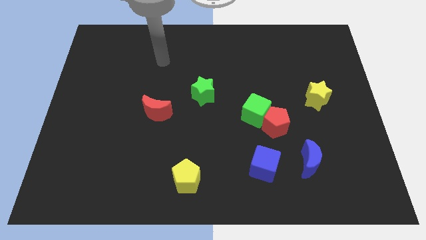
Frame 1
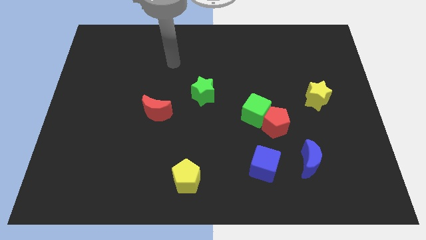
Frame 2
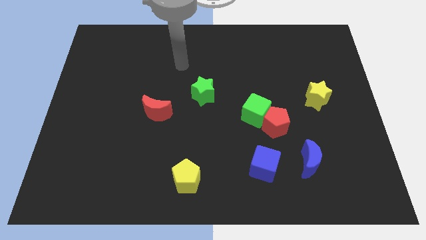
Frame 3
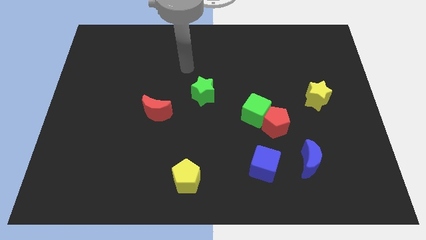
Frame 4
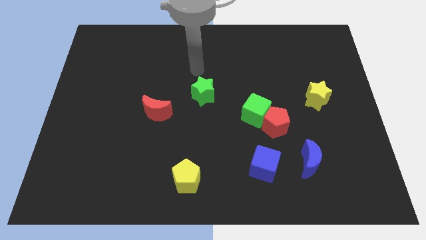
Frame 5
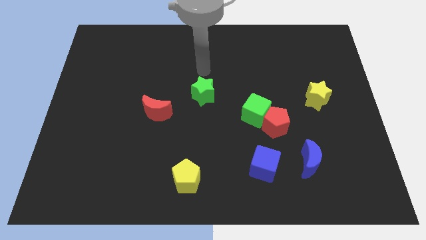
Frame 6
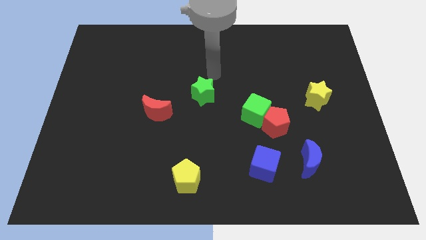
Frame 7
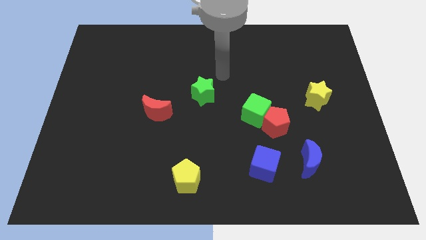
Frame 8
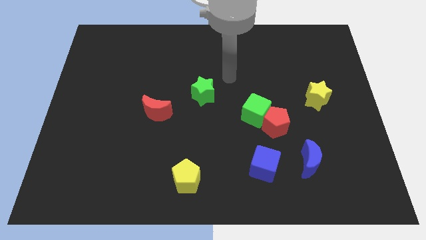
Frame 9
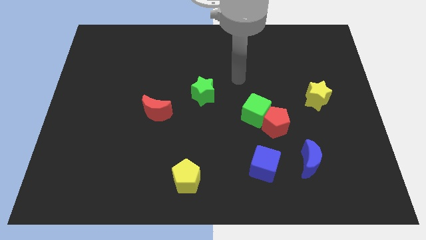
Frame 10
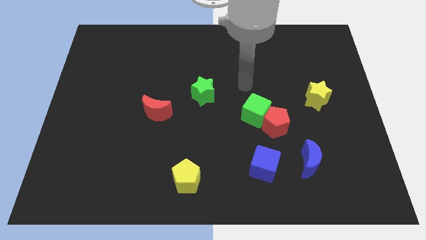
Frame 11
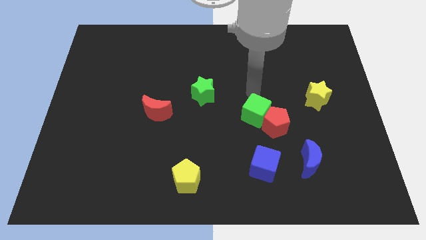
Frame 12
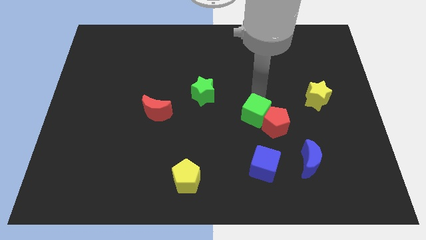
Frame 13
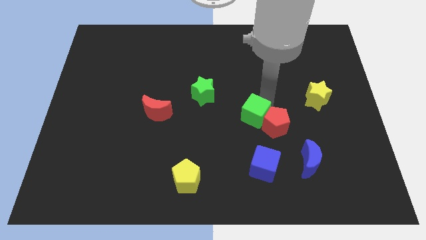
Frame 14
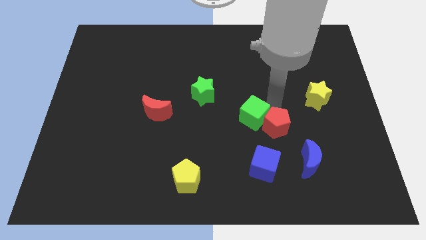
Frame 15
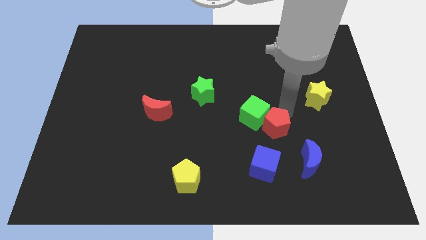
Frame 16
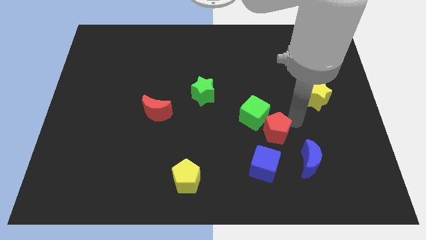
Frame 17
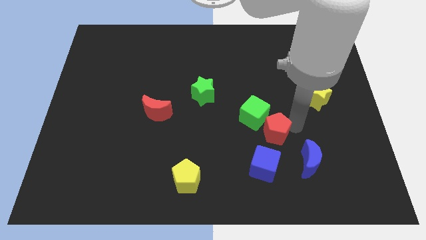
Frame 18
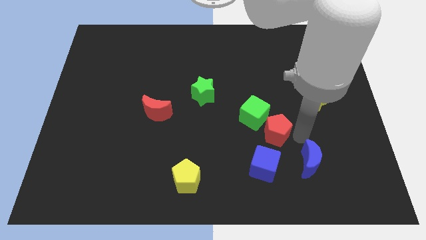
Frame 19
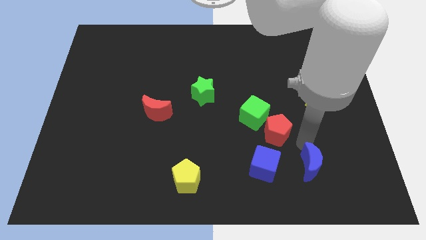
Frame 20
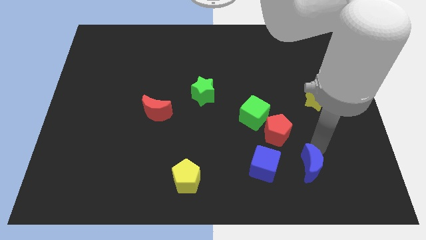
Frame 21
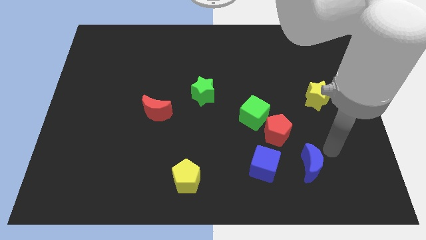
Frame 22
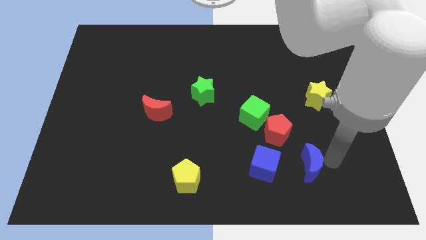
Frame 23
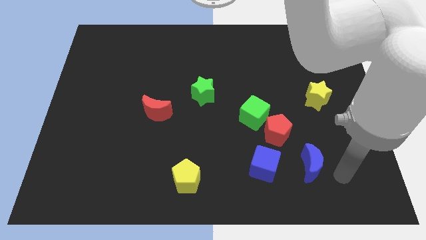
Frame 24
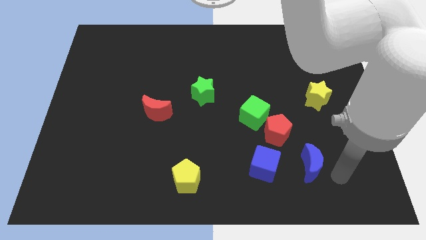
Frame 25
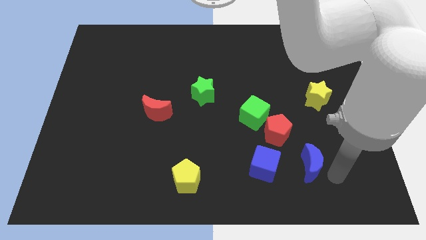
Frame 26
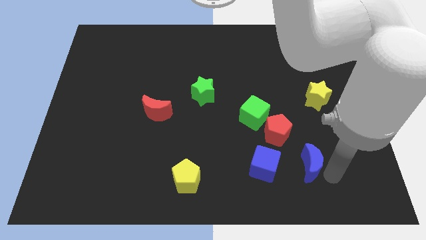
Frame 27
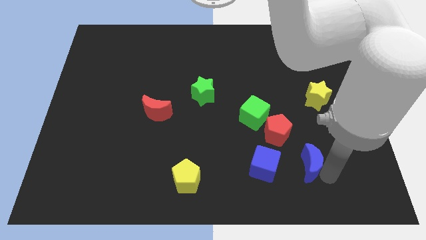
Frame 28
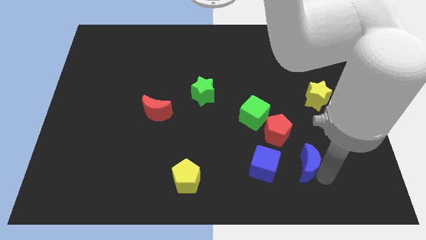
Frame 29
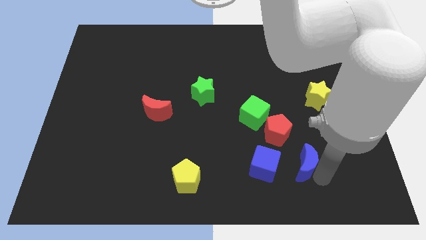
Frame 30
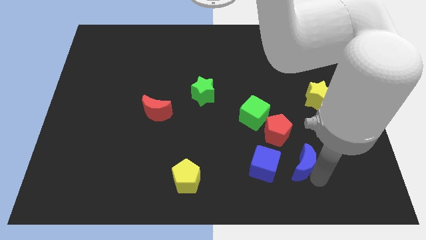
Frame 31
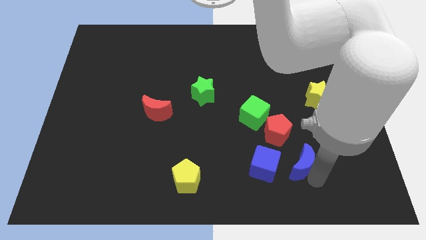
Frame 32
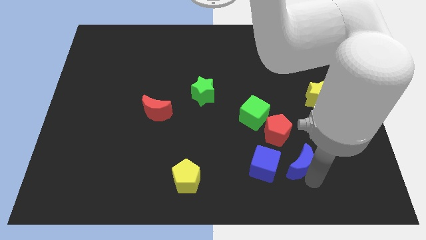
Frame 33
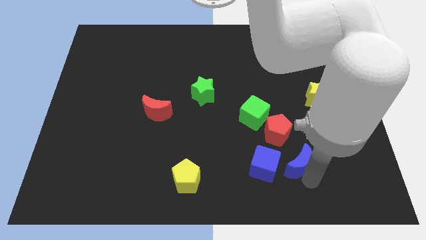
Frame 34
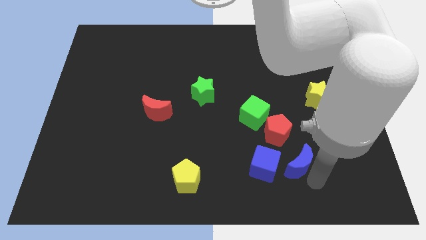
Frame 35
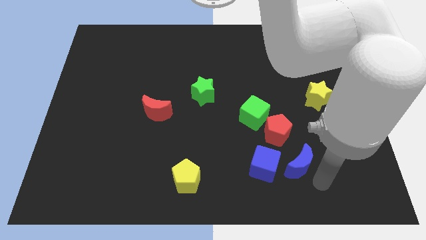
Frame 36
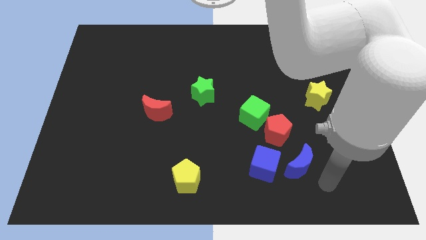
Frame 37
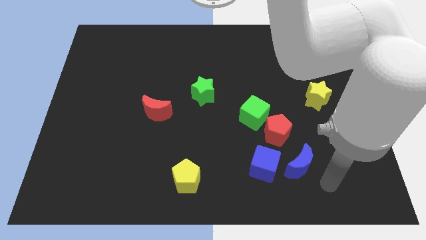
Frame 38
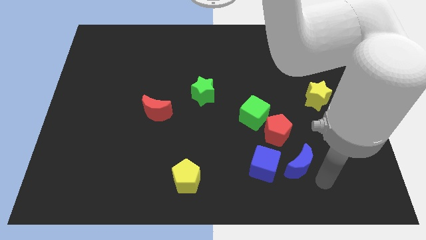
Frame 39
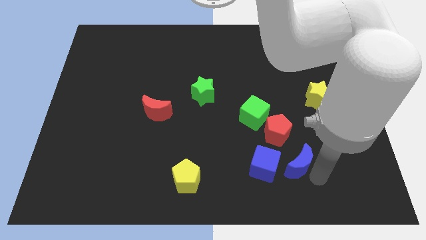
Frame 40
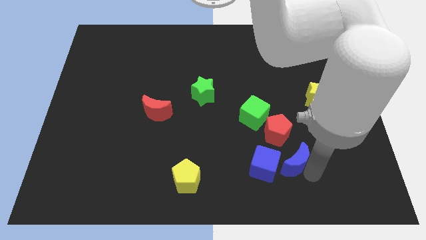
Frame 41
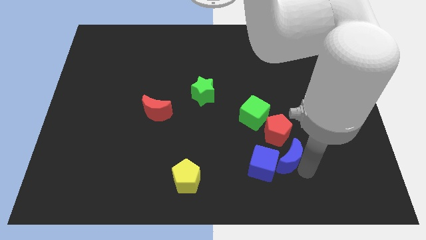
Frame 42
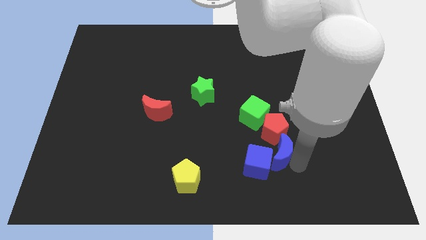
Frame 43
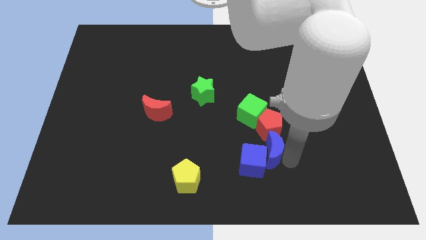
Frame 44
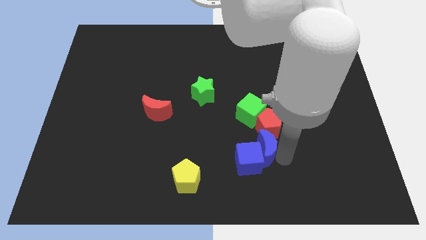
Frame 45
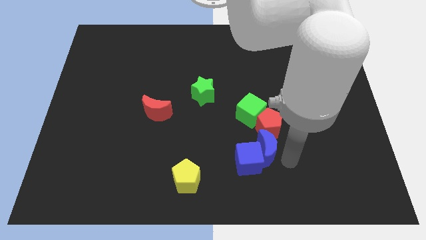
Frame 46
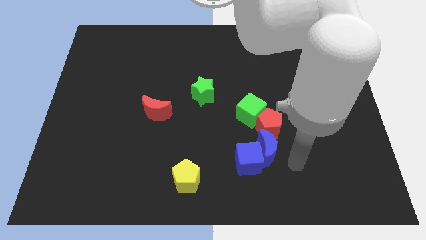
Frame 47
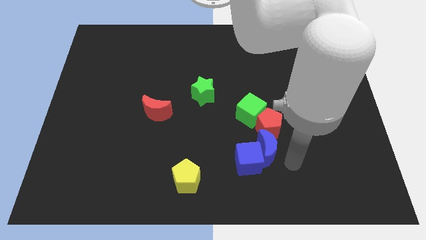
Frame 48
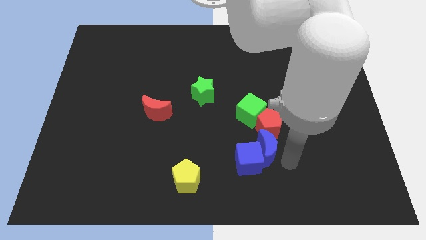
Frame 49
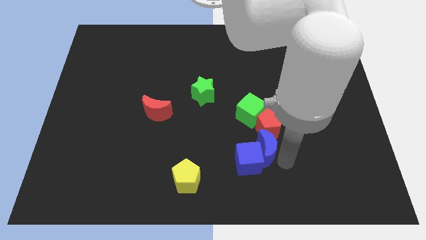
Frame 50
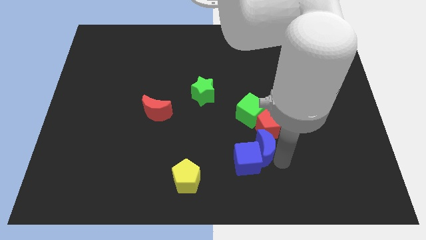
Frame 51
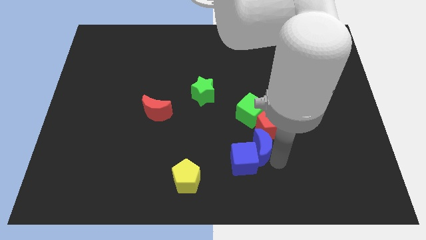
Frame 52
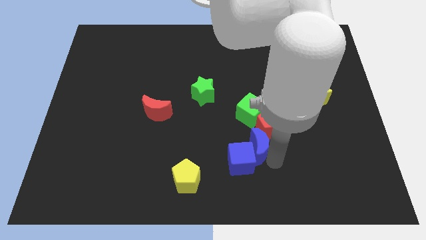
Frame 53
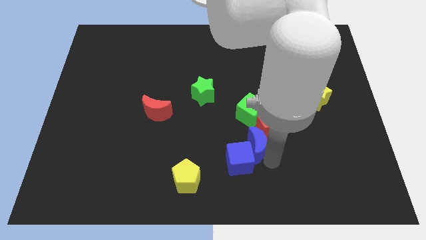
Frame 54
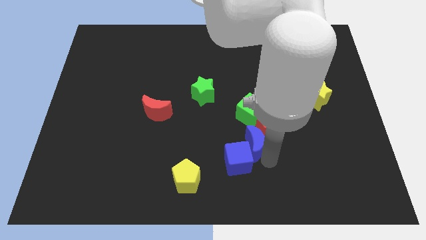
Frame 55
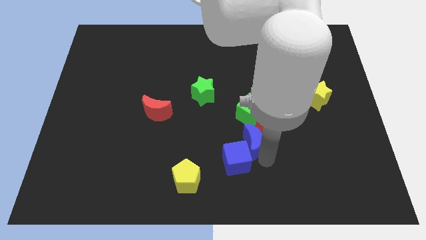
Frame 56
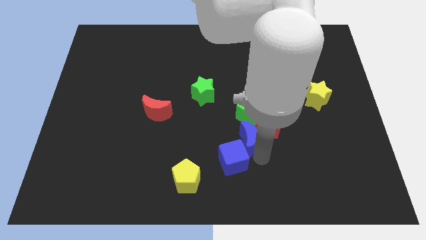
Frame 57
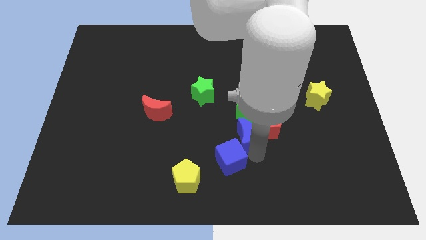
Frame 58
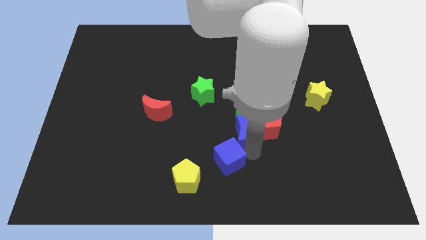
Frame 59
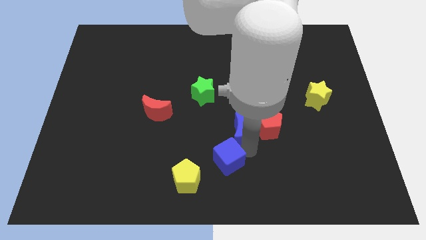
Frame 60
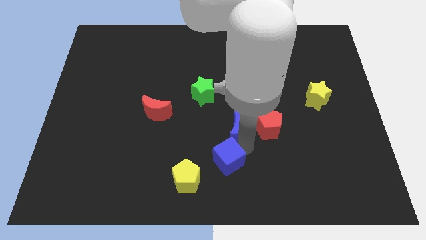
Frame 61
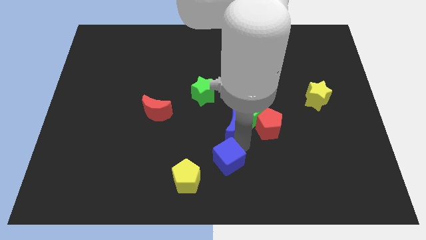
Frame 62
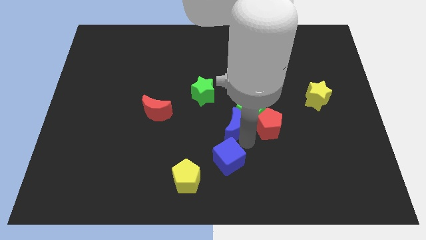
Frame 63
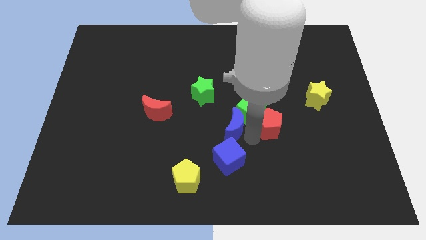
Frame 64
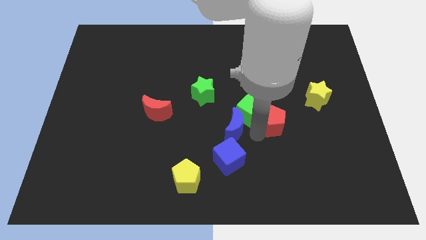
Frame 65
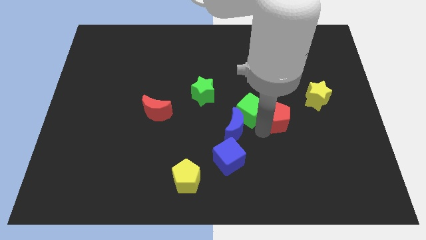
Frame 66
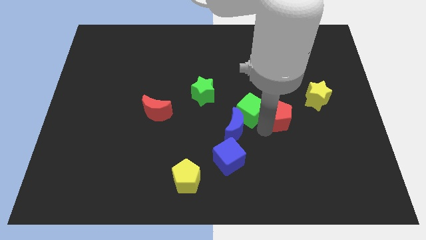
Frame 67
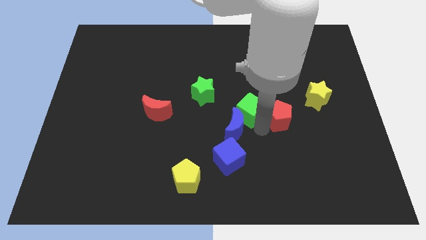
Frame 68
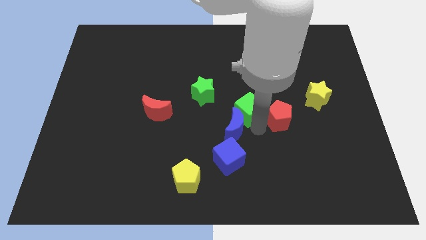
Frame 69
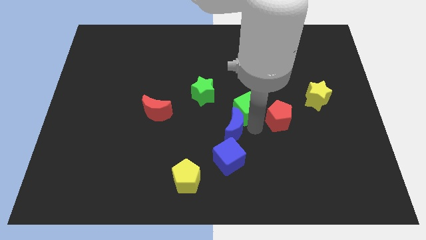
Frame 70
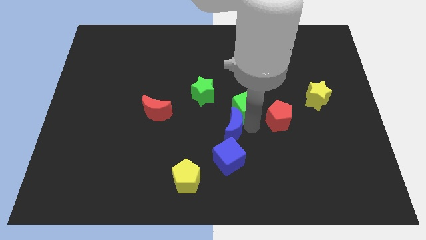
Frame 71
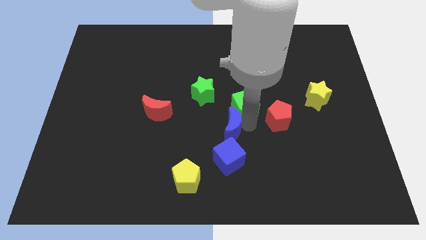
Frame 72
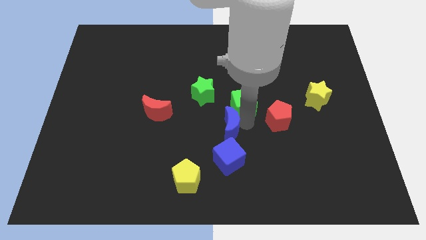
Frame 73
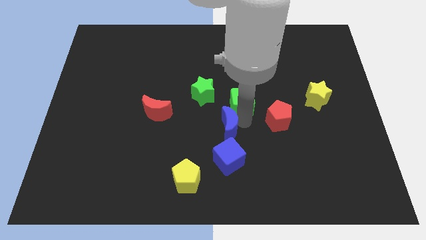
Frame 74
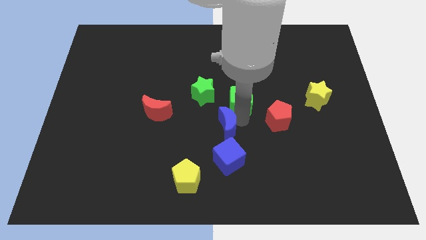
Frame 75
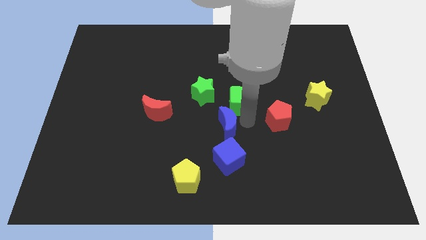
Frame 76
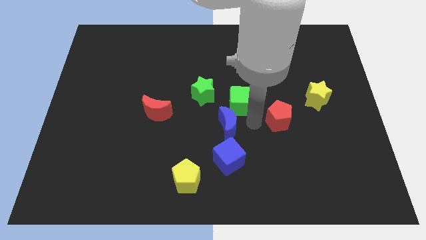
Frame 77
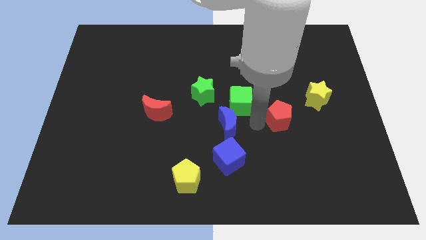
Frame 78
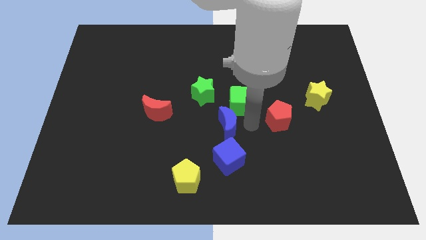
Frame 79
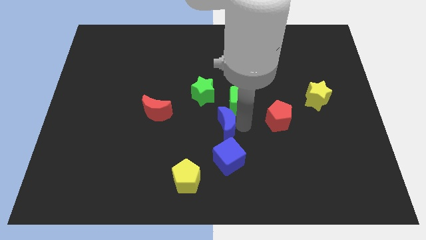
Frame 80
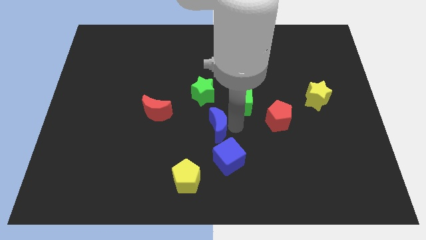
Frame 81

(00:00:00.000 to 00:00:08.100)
push the blue moon to the bottom of the green star
